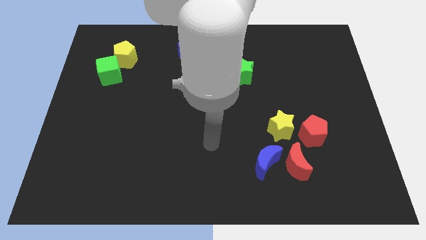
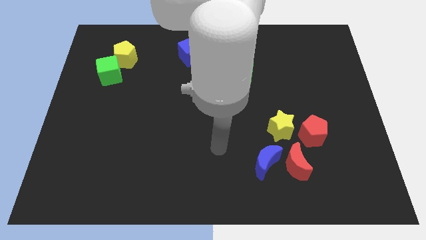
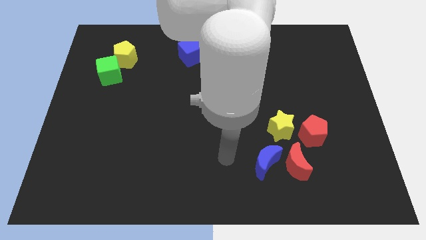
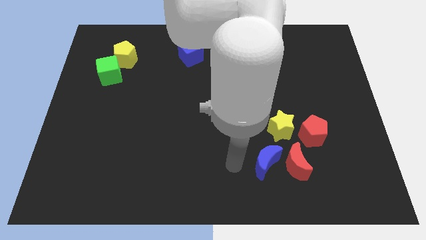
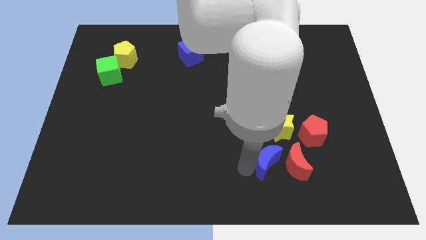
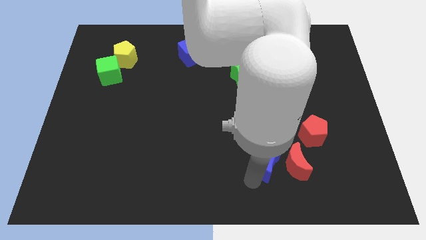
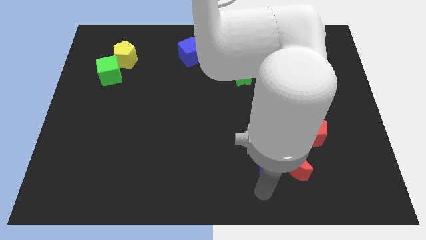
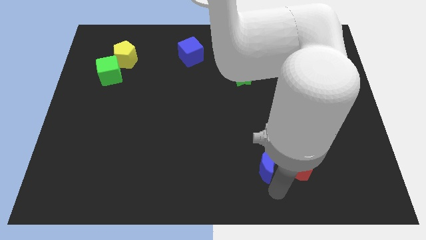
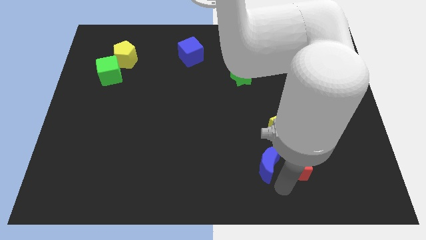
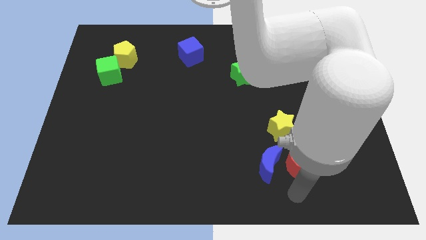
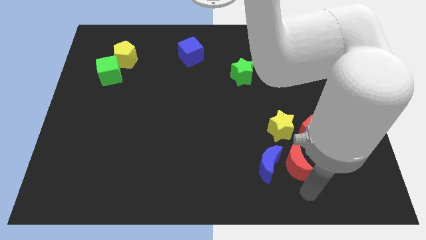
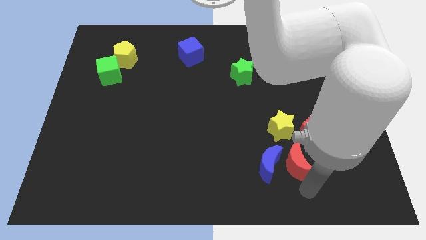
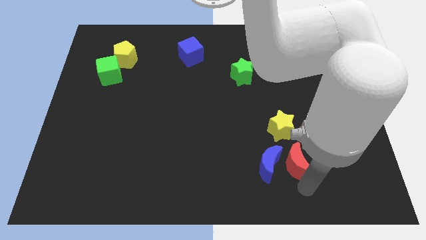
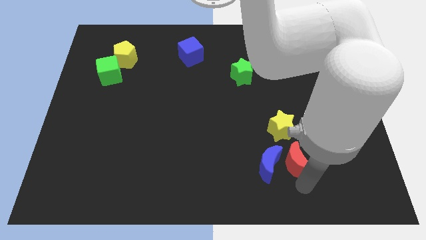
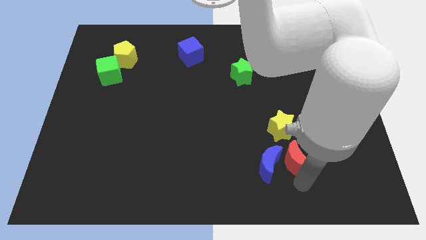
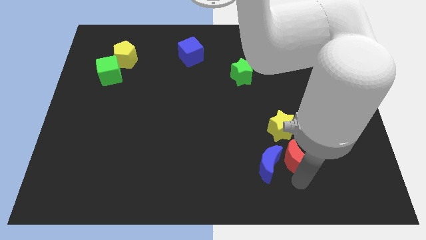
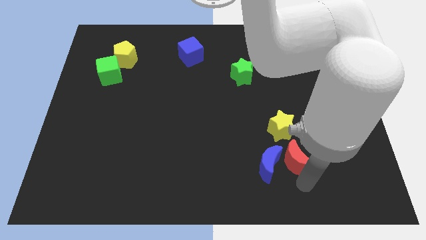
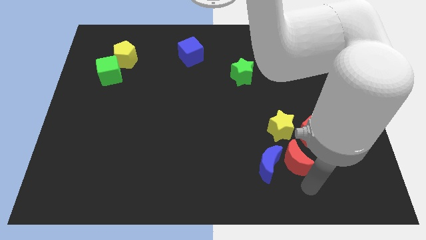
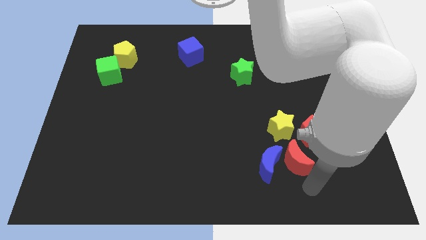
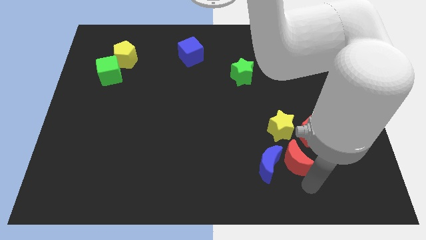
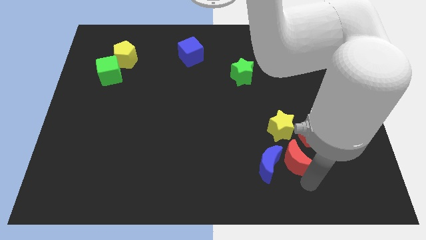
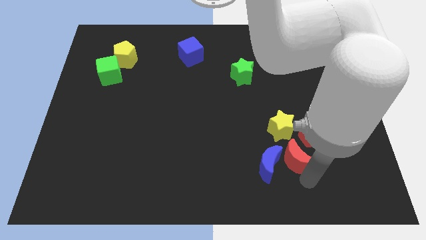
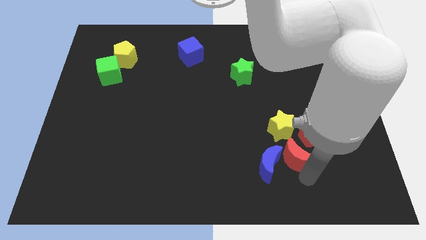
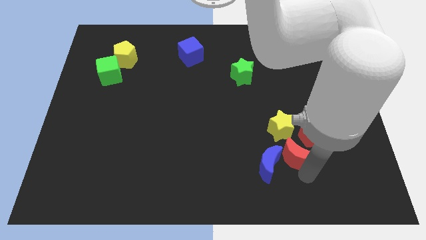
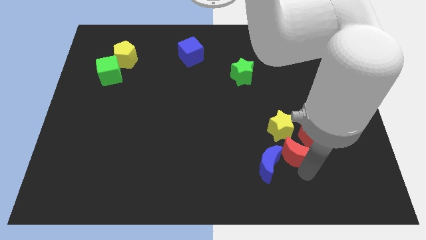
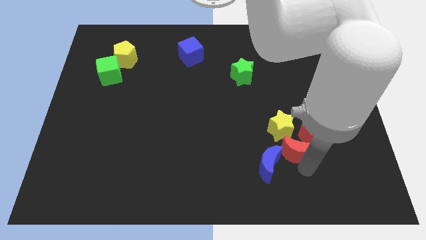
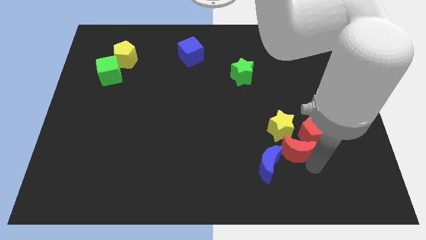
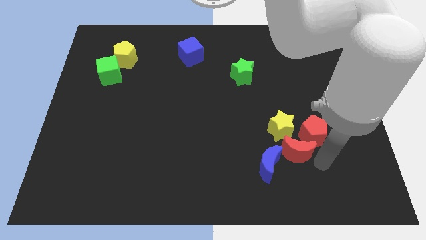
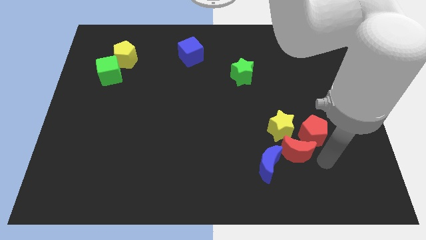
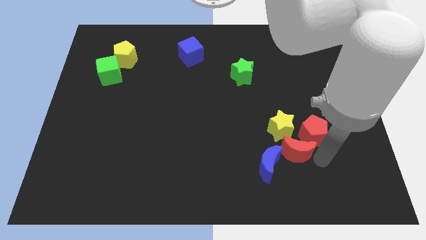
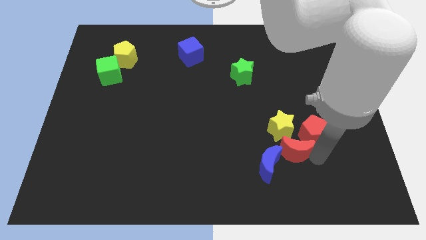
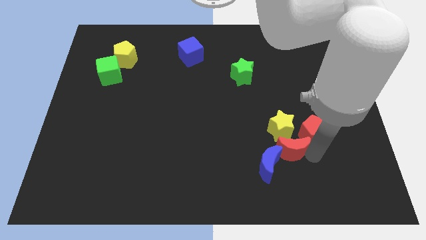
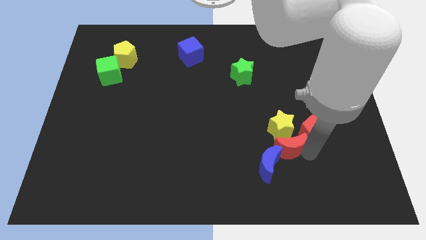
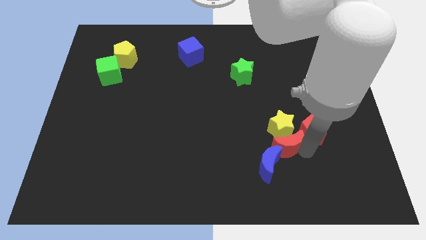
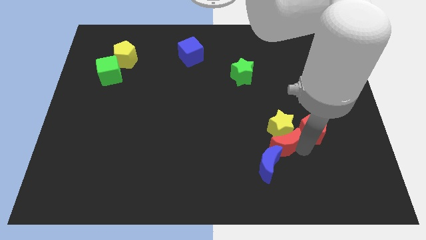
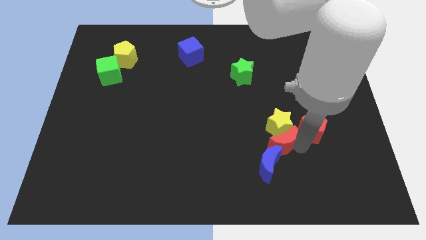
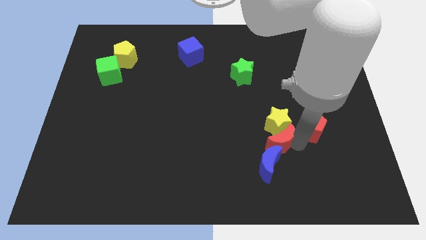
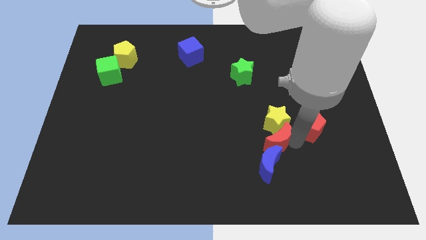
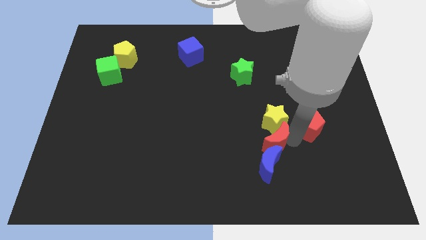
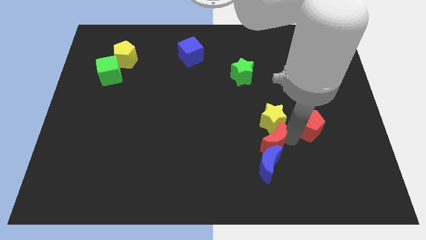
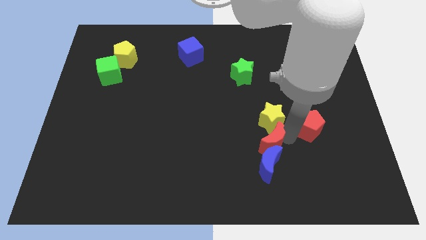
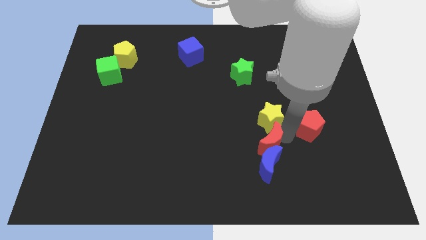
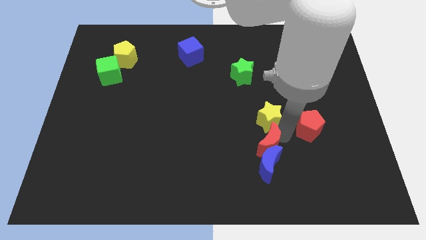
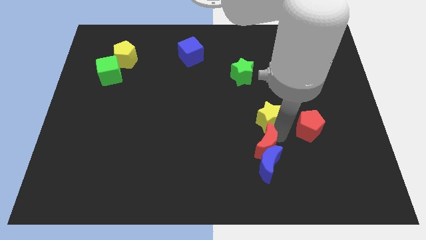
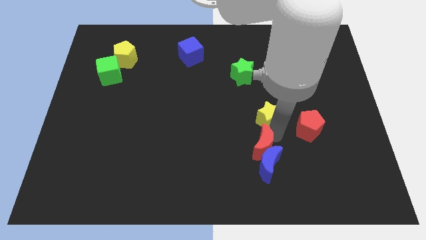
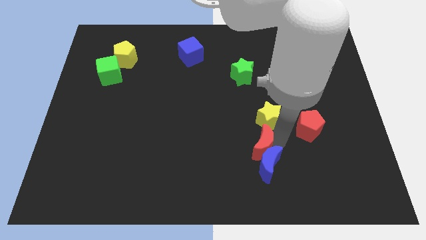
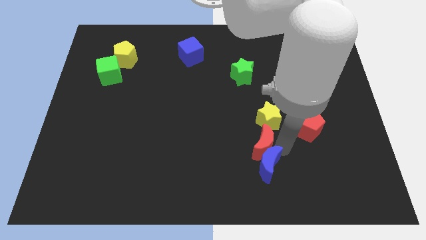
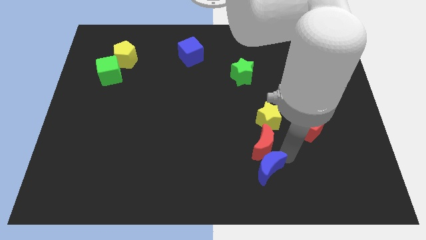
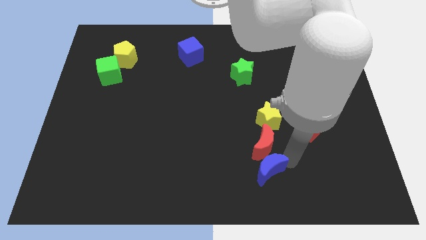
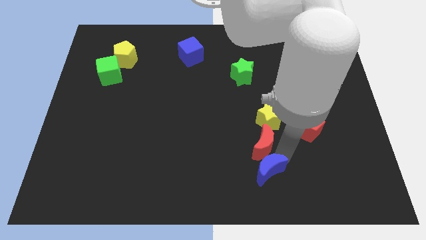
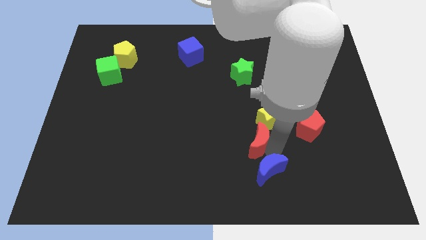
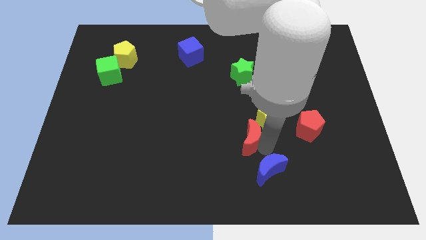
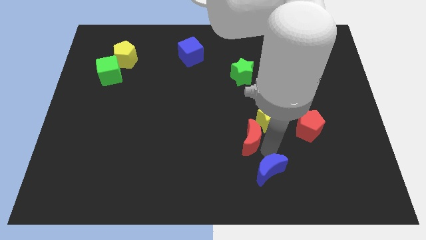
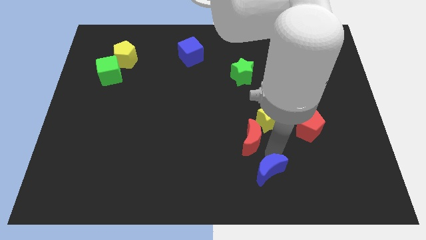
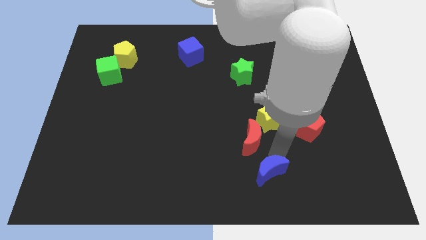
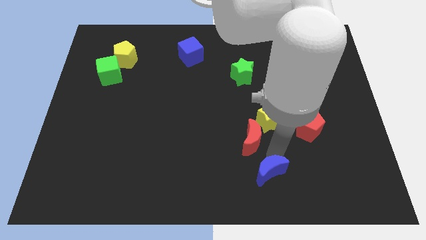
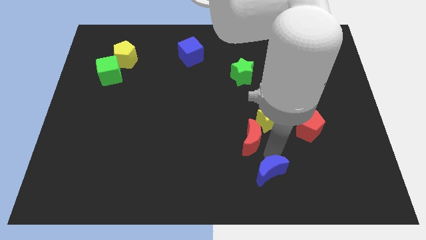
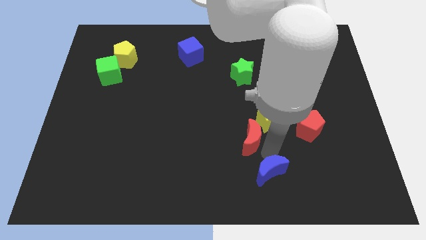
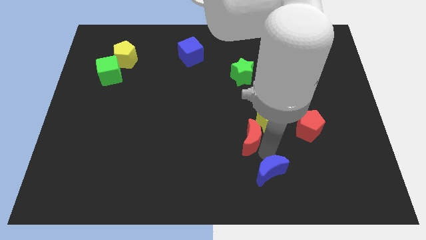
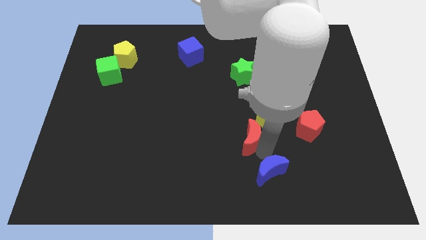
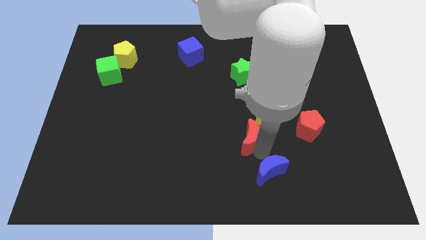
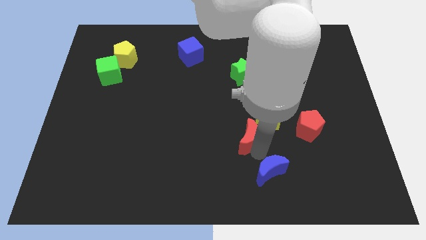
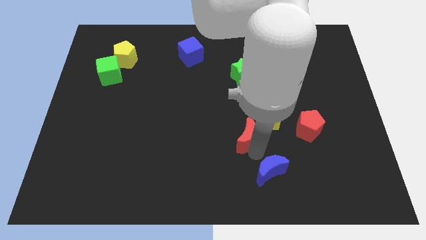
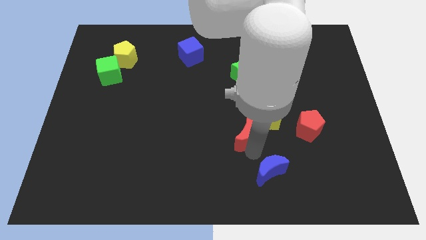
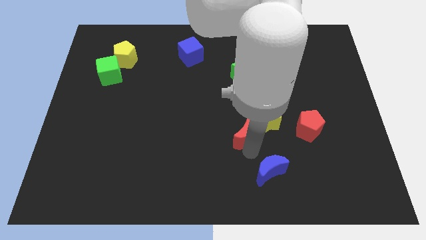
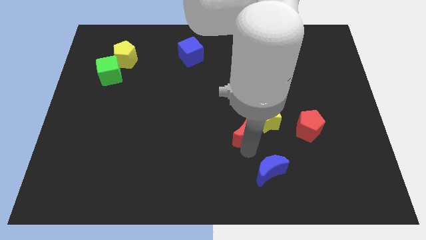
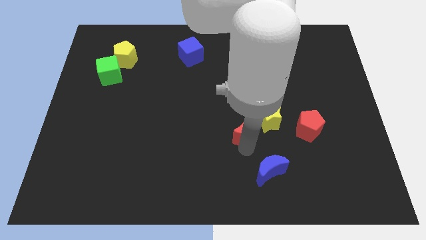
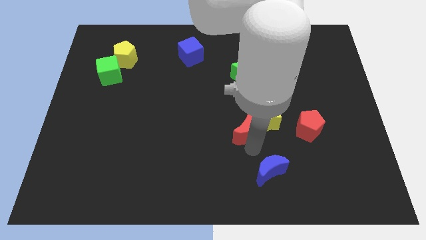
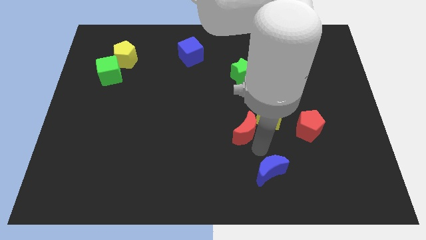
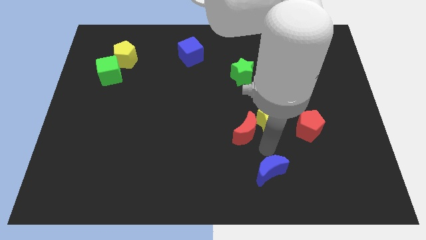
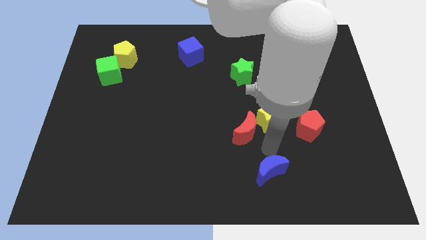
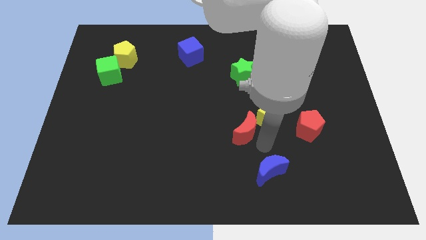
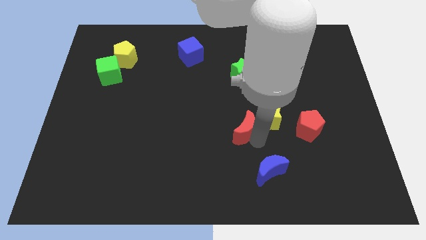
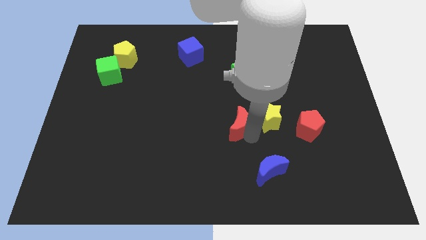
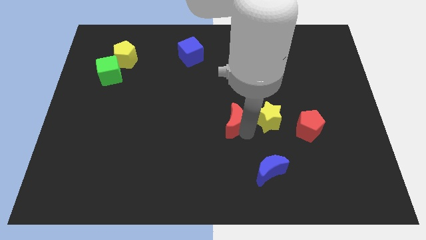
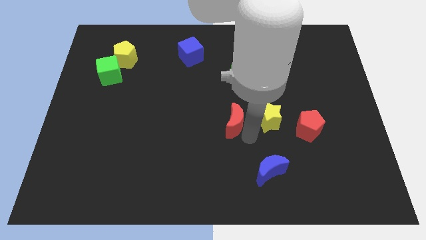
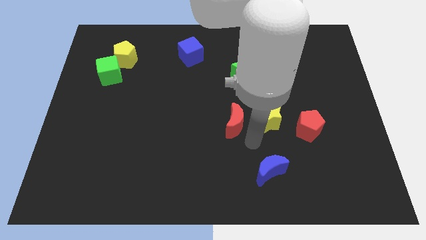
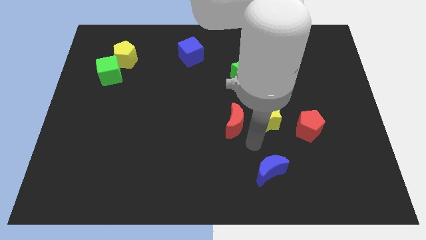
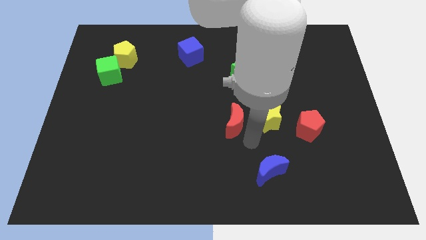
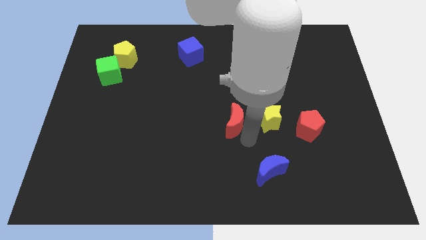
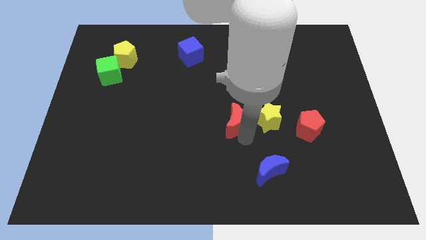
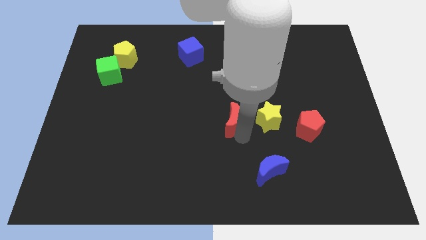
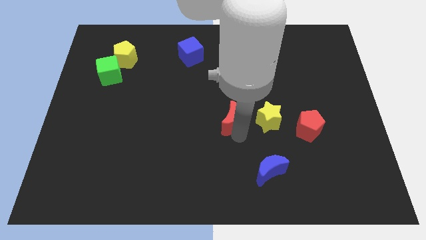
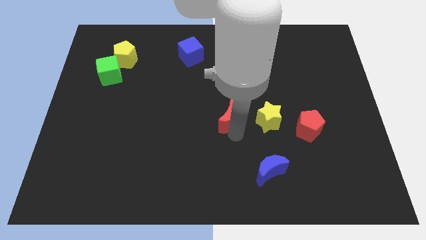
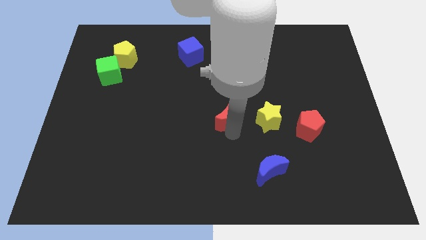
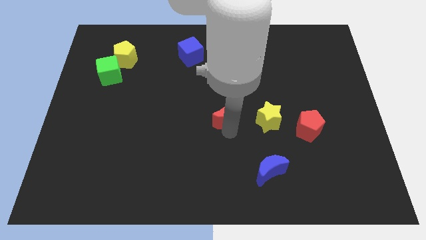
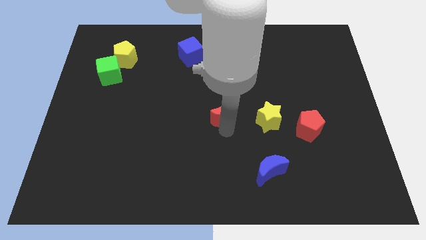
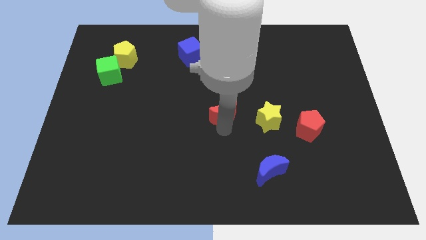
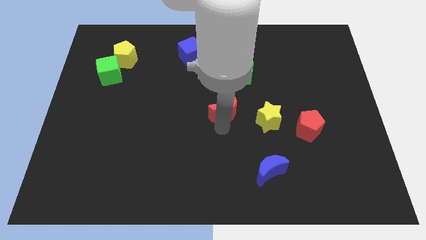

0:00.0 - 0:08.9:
move the red moon upwards and to the left
